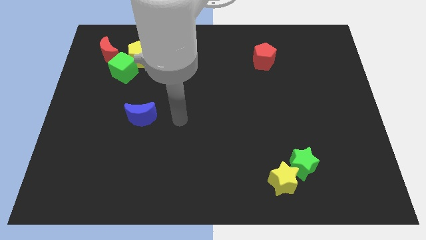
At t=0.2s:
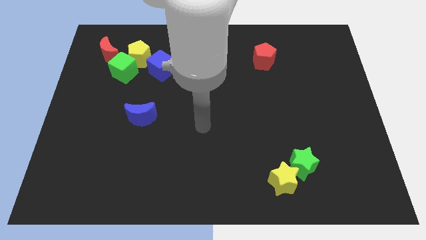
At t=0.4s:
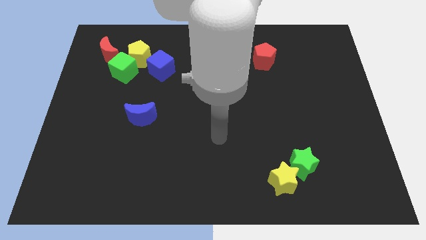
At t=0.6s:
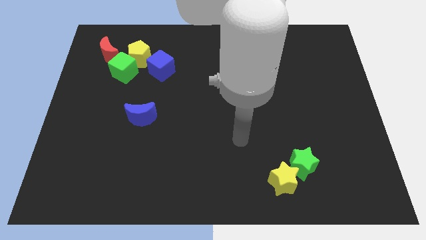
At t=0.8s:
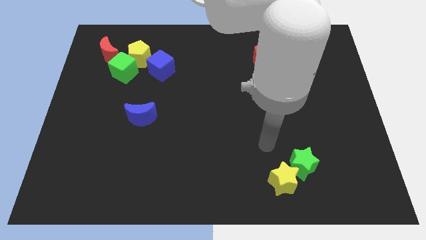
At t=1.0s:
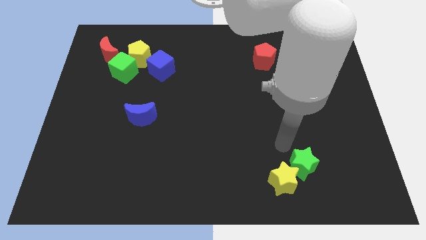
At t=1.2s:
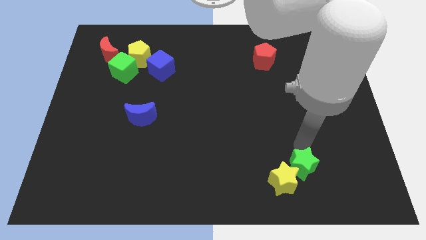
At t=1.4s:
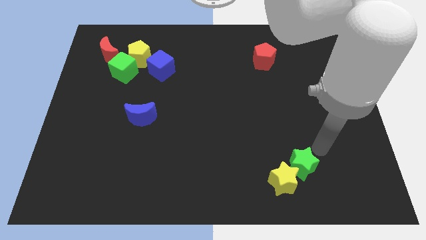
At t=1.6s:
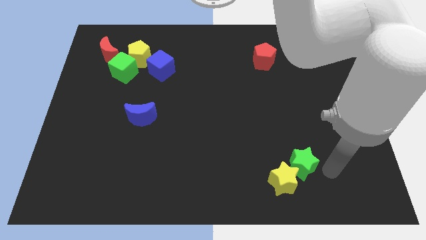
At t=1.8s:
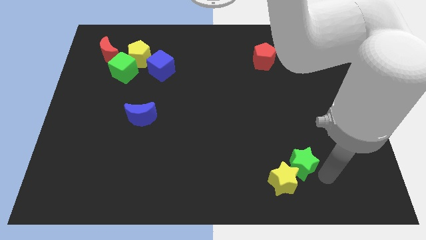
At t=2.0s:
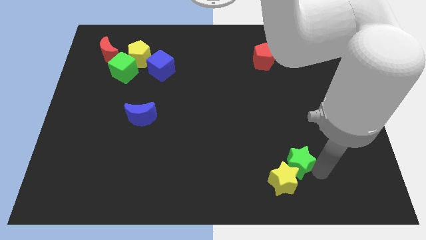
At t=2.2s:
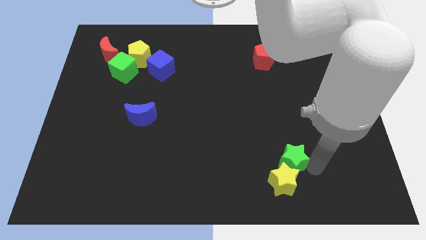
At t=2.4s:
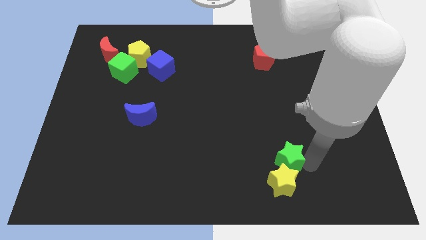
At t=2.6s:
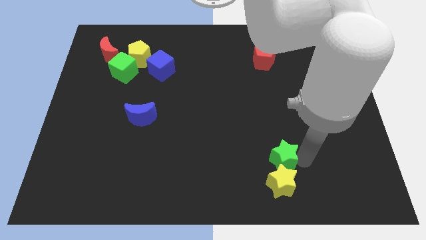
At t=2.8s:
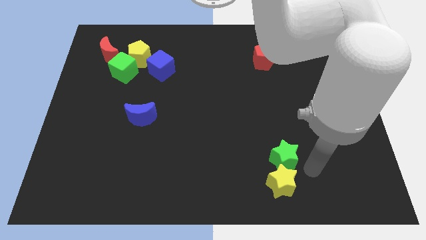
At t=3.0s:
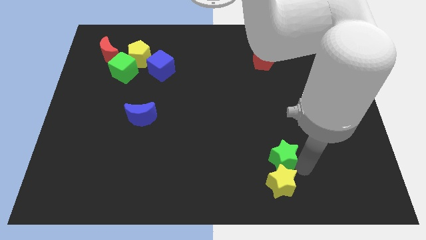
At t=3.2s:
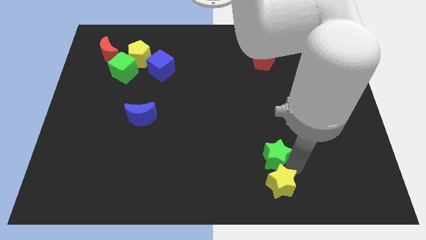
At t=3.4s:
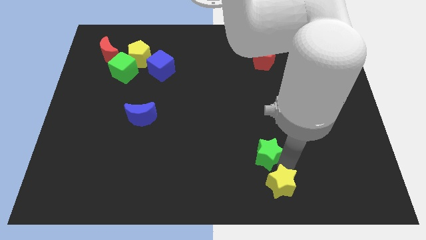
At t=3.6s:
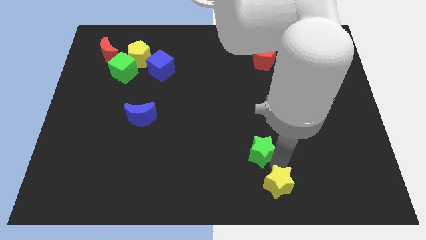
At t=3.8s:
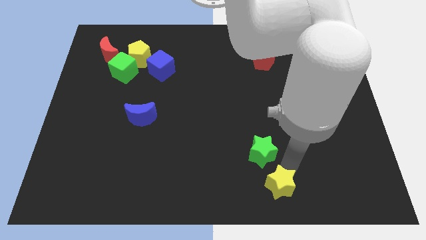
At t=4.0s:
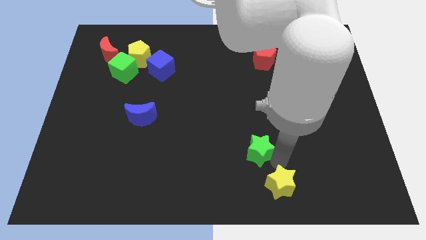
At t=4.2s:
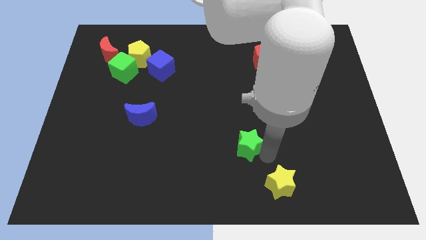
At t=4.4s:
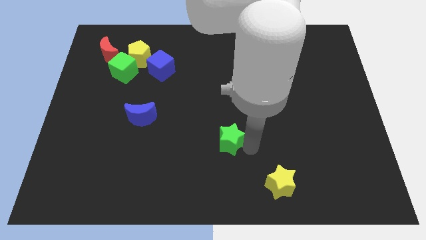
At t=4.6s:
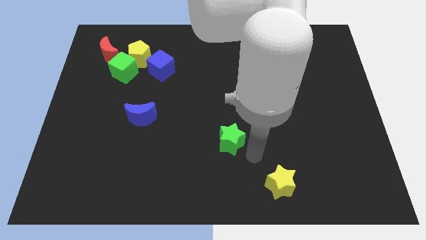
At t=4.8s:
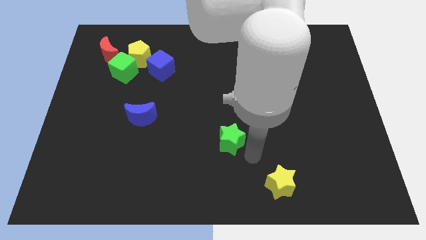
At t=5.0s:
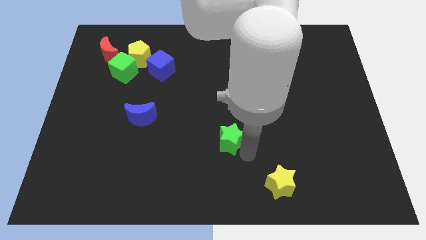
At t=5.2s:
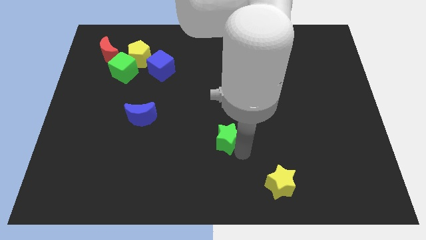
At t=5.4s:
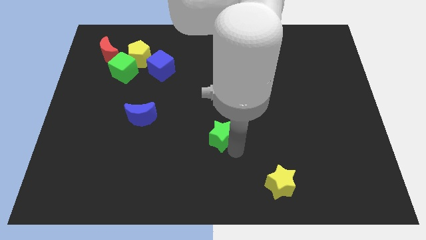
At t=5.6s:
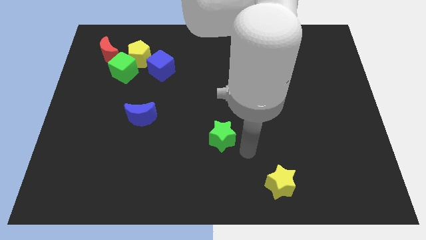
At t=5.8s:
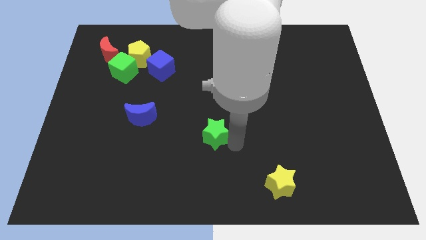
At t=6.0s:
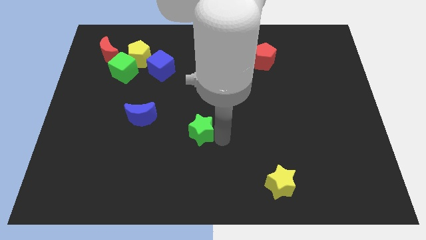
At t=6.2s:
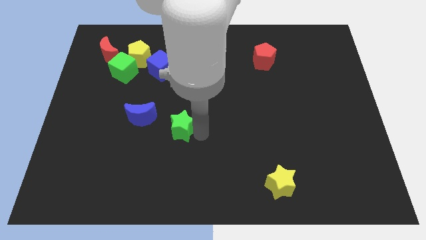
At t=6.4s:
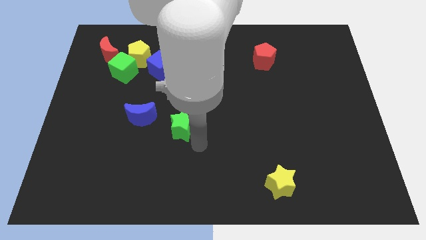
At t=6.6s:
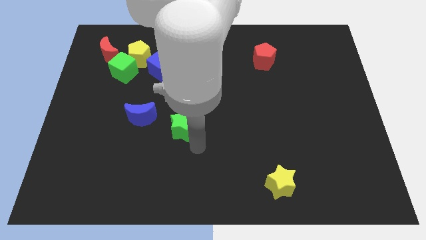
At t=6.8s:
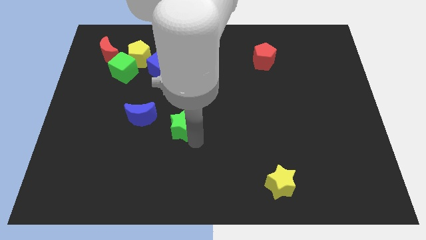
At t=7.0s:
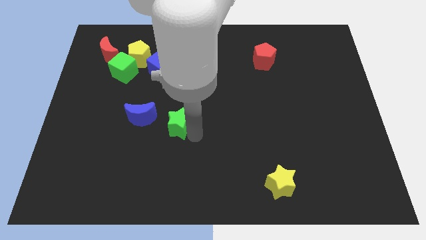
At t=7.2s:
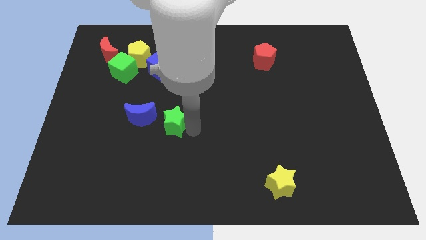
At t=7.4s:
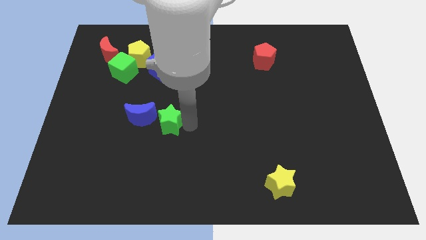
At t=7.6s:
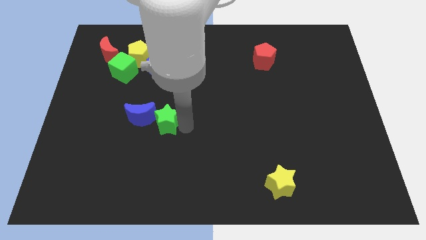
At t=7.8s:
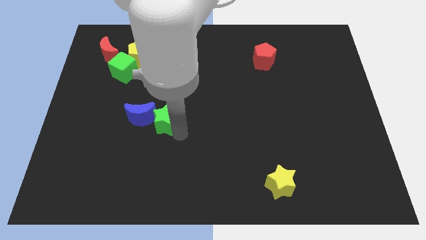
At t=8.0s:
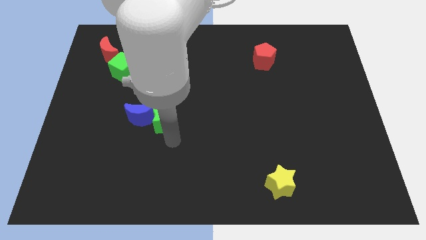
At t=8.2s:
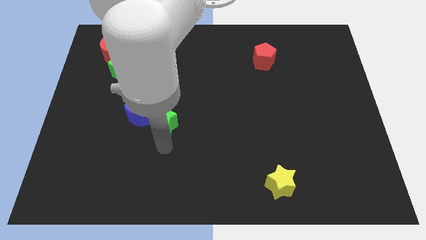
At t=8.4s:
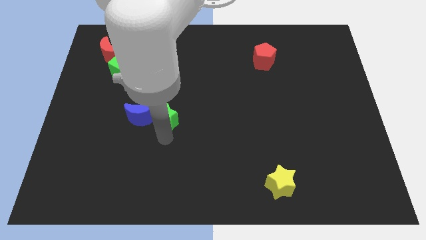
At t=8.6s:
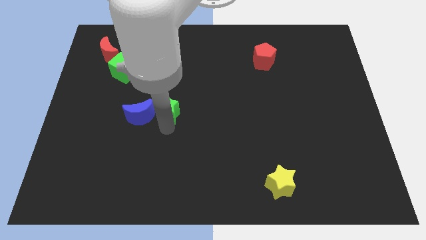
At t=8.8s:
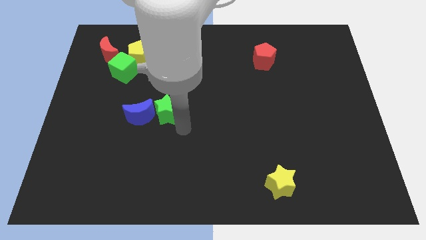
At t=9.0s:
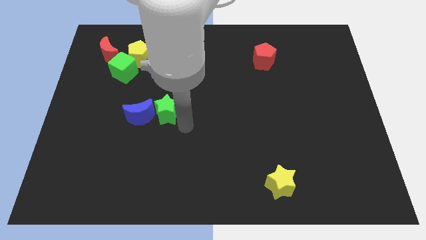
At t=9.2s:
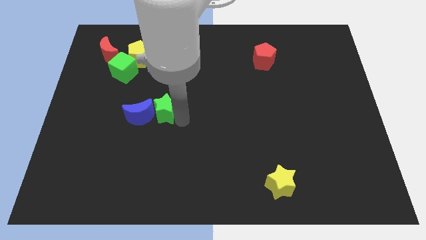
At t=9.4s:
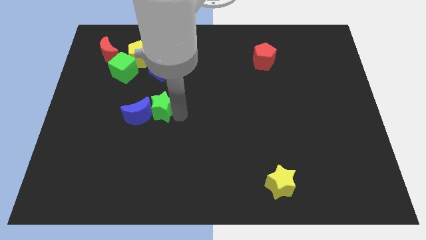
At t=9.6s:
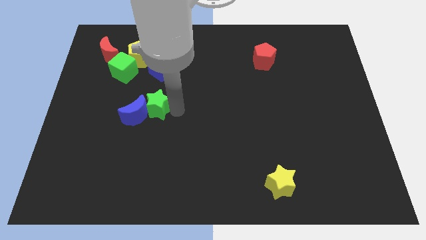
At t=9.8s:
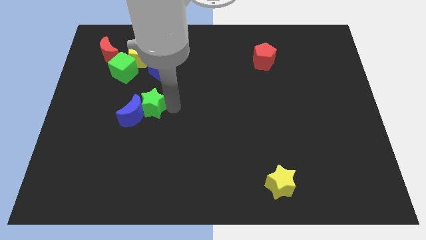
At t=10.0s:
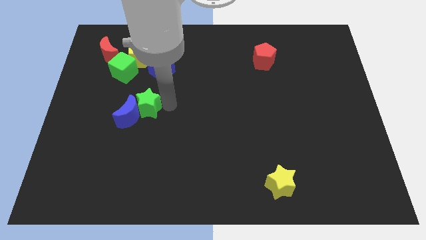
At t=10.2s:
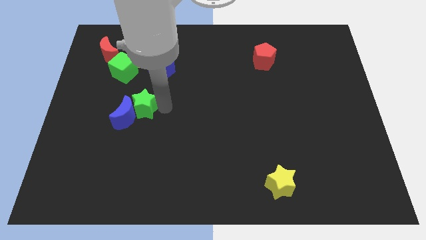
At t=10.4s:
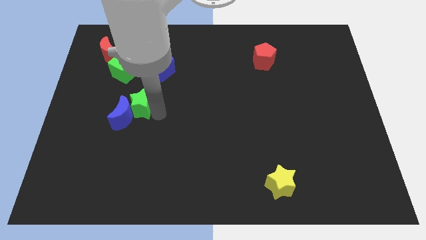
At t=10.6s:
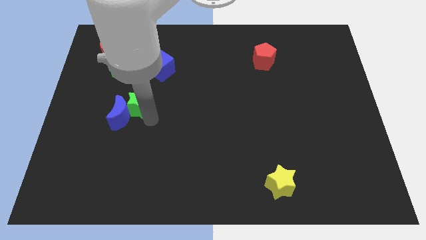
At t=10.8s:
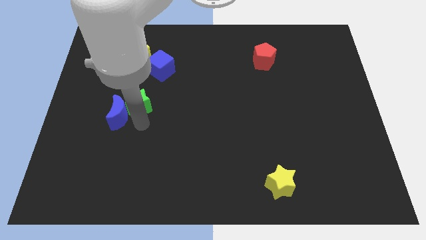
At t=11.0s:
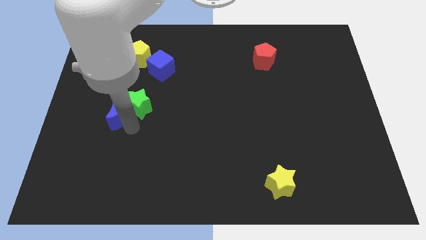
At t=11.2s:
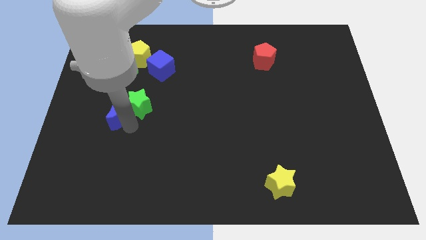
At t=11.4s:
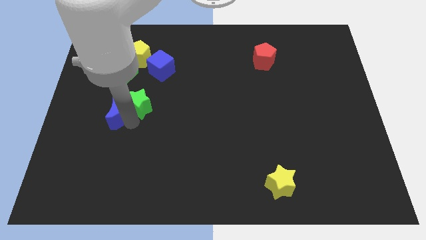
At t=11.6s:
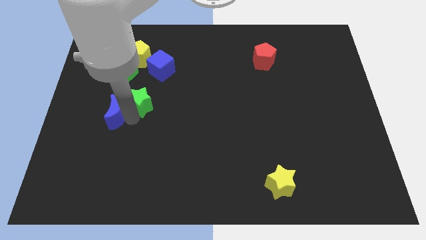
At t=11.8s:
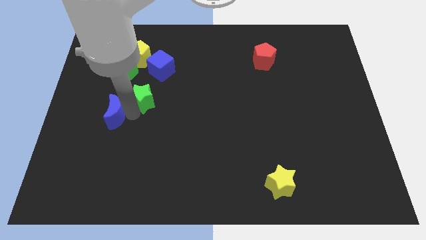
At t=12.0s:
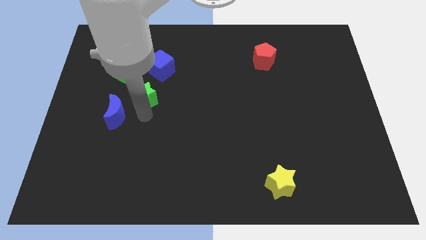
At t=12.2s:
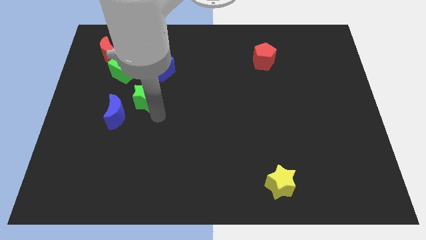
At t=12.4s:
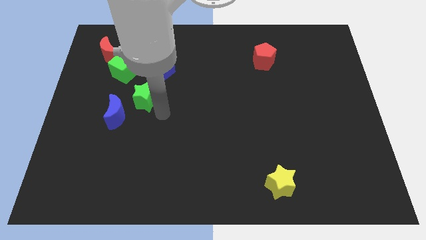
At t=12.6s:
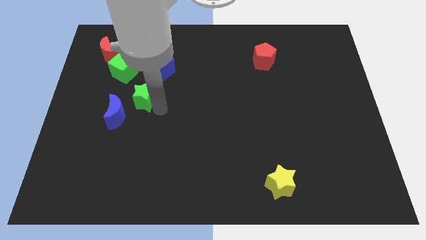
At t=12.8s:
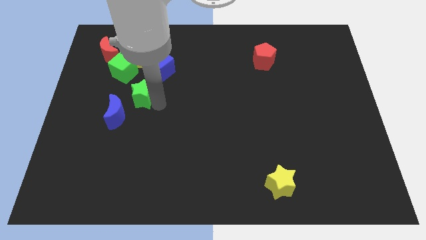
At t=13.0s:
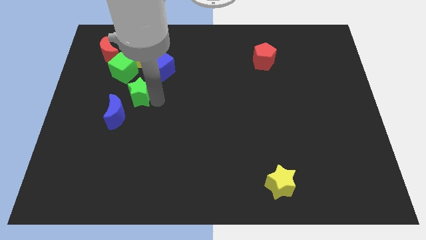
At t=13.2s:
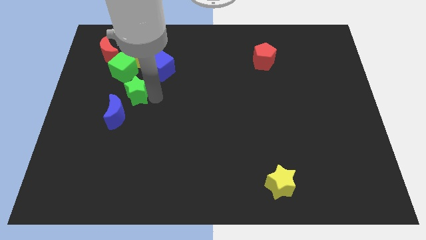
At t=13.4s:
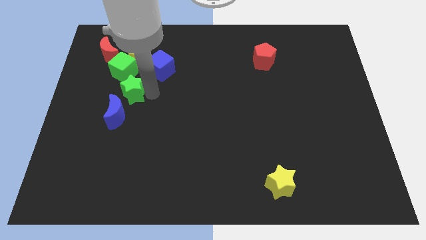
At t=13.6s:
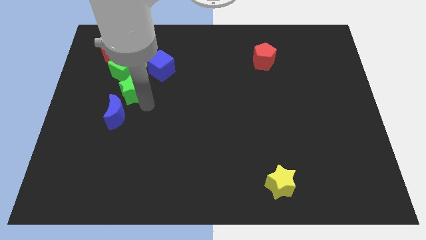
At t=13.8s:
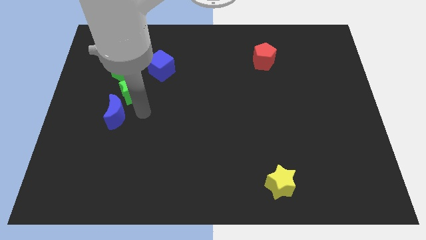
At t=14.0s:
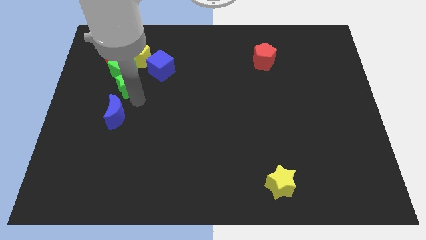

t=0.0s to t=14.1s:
move the green star to the green cube

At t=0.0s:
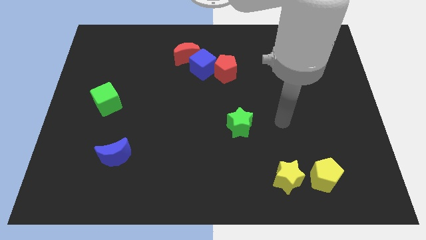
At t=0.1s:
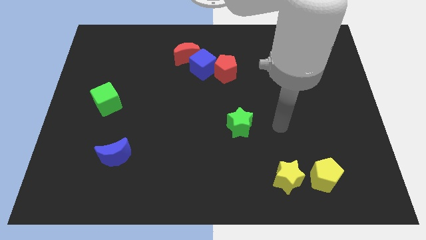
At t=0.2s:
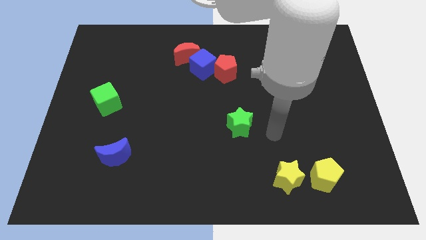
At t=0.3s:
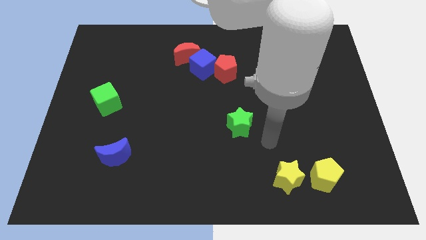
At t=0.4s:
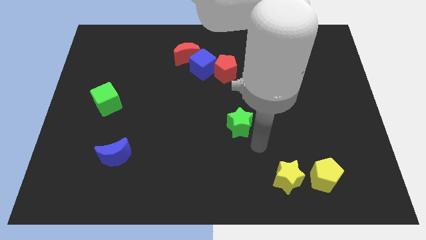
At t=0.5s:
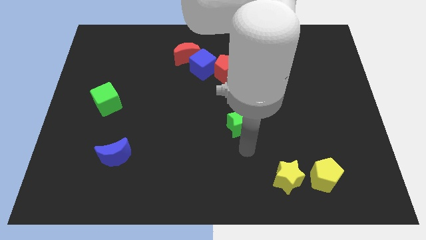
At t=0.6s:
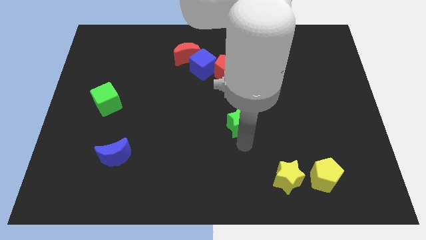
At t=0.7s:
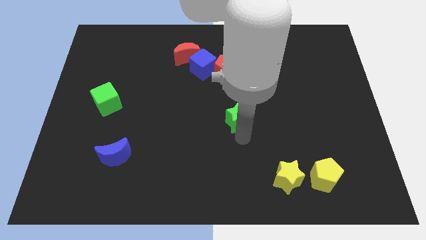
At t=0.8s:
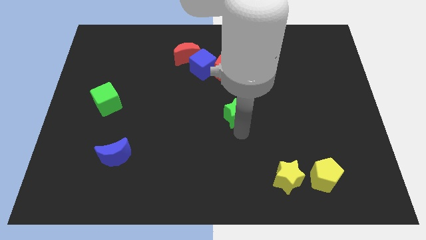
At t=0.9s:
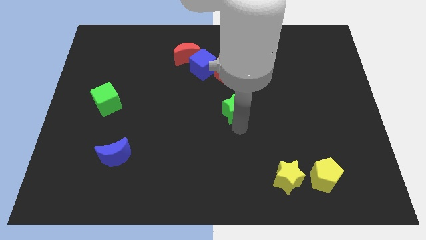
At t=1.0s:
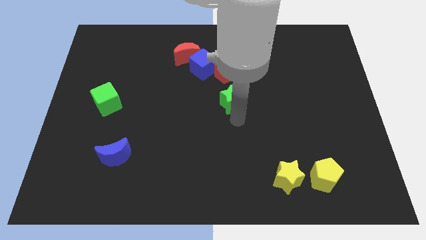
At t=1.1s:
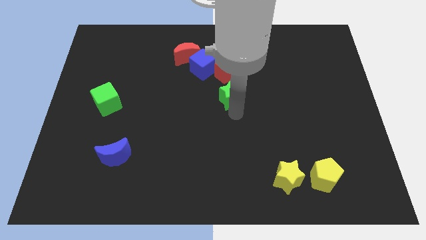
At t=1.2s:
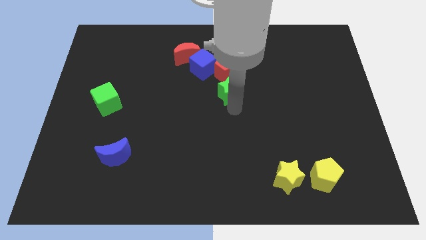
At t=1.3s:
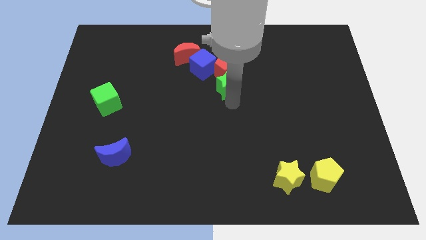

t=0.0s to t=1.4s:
put the green star close to the red pentagon
